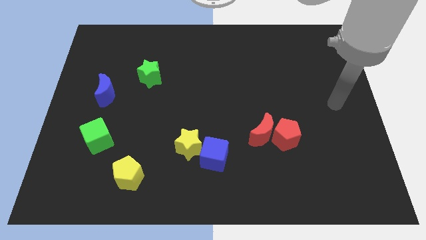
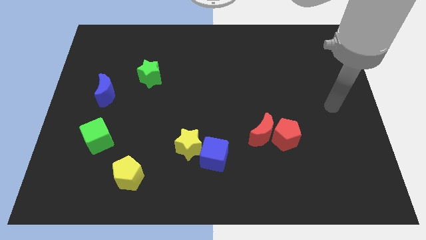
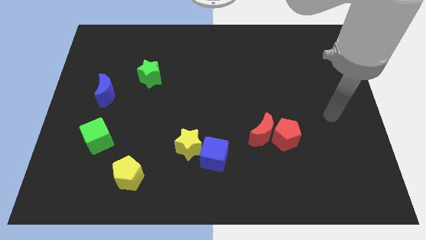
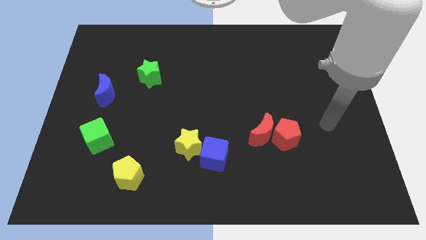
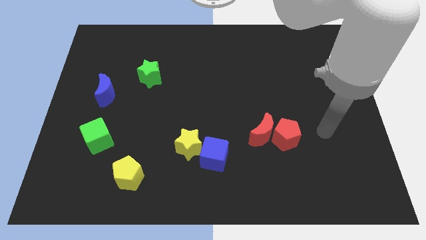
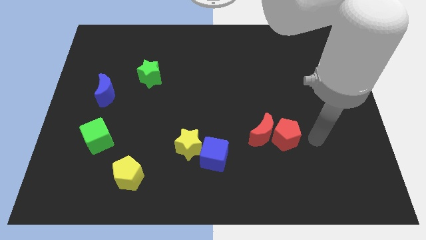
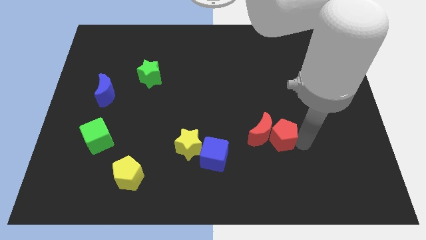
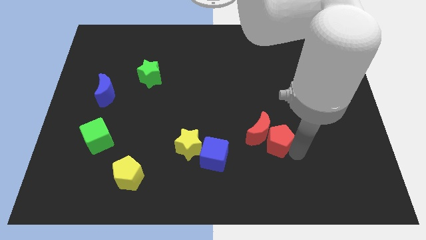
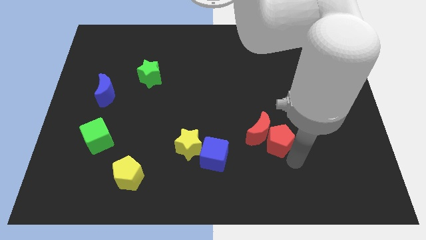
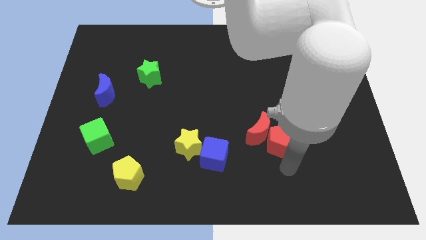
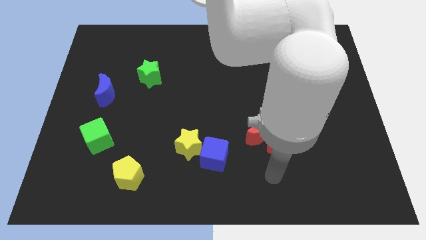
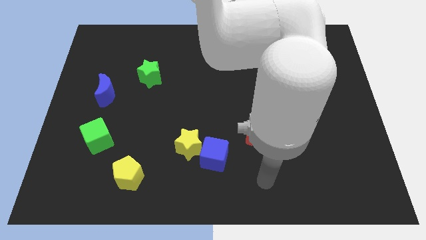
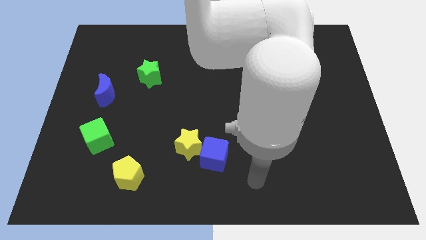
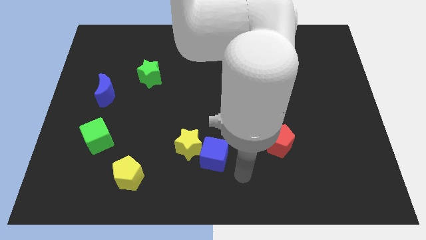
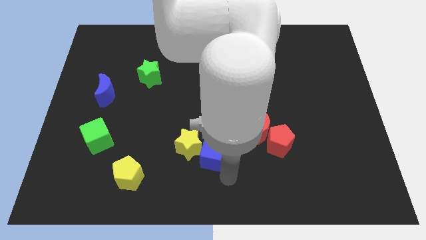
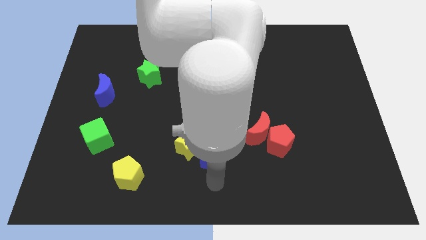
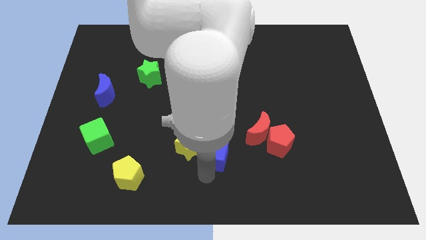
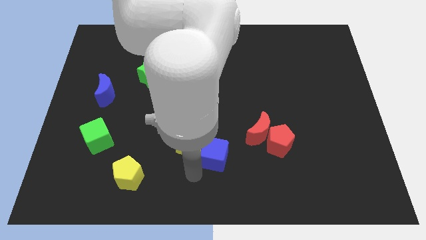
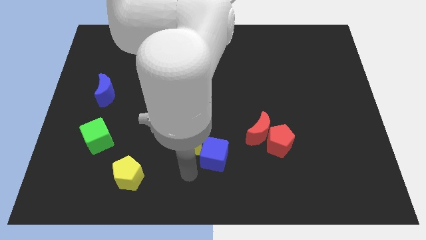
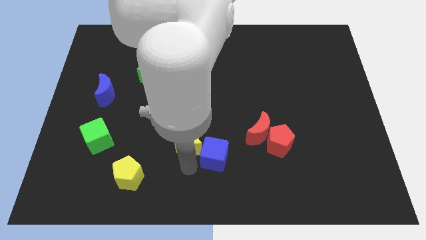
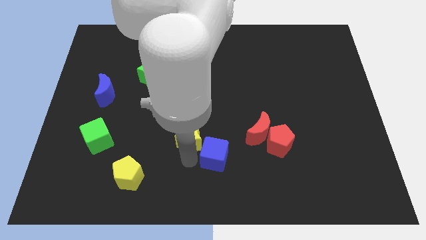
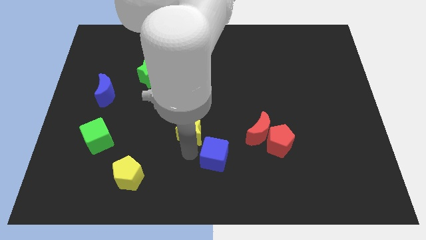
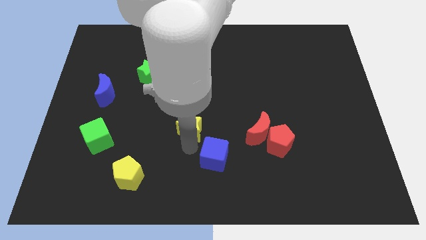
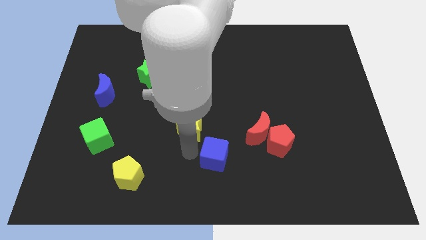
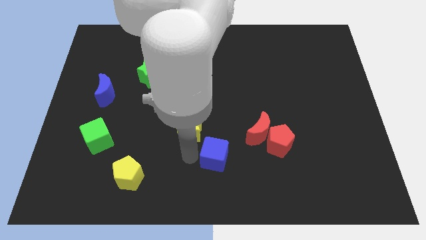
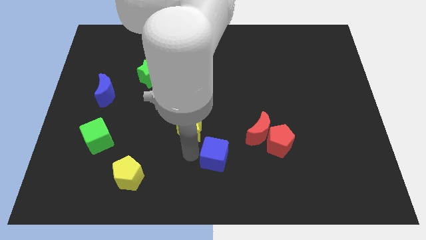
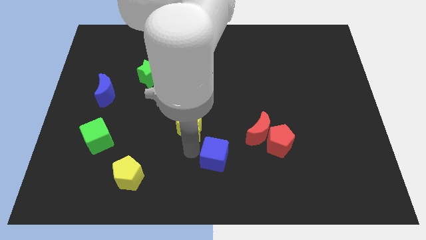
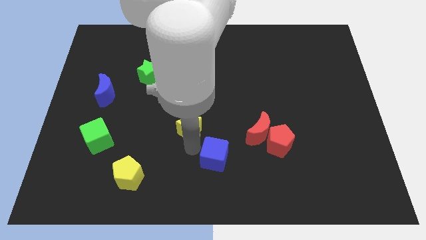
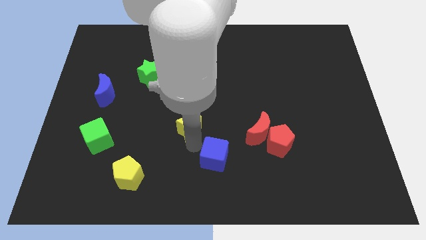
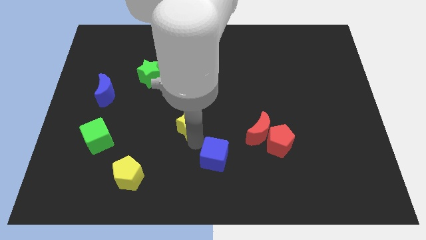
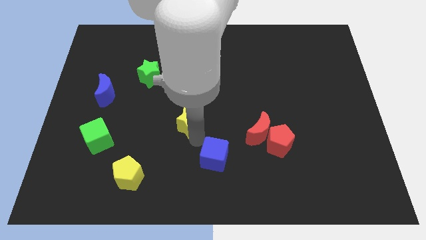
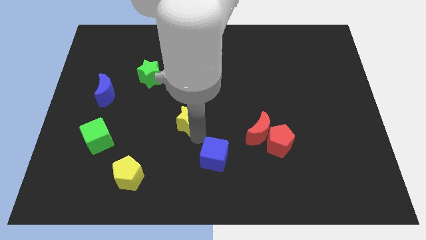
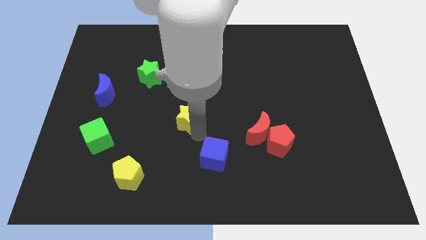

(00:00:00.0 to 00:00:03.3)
slightly slide the yellow star up

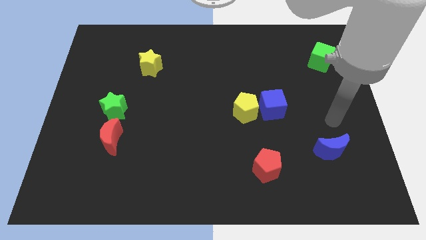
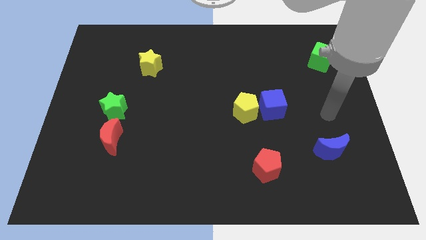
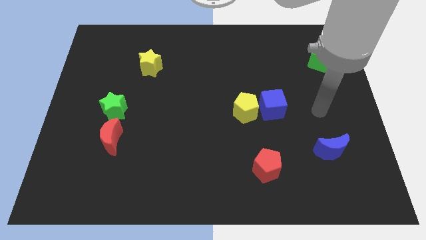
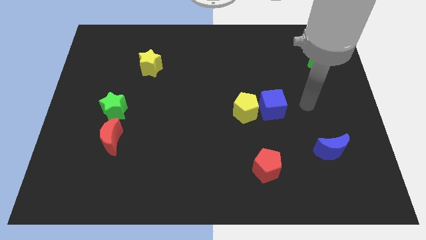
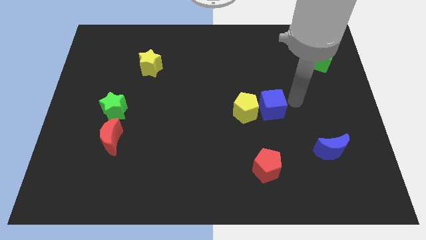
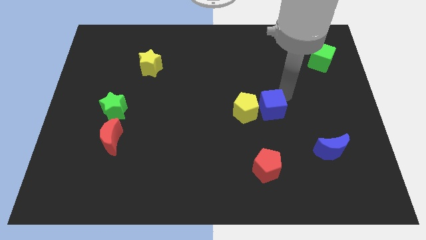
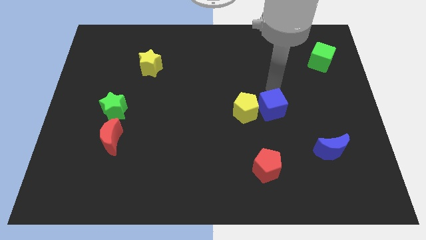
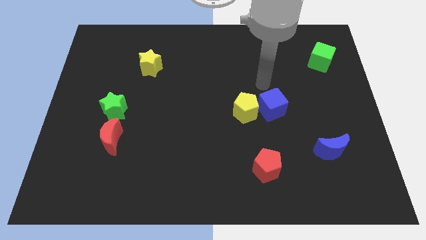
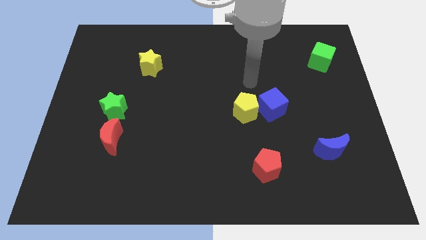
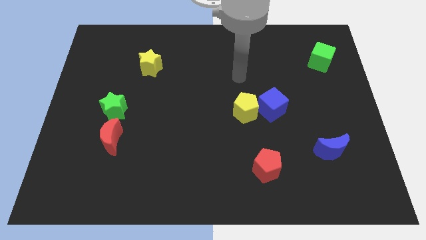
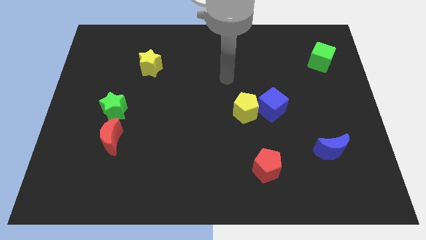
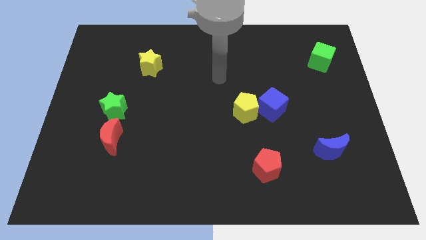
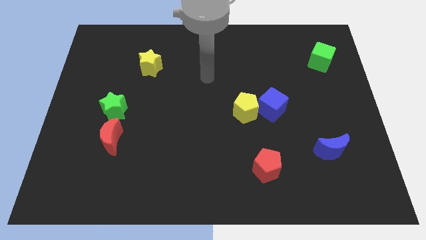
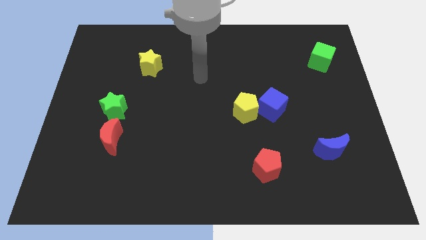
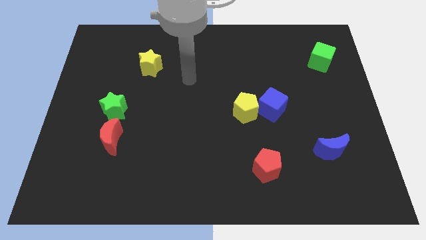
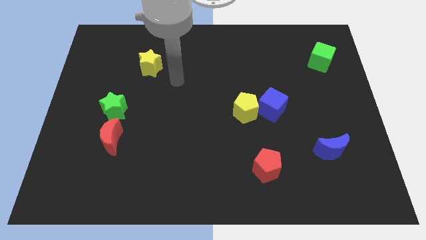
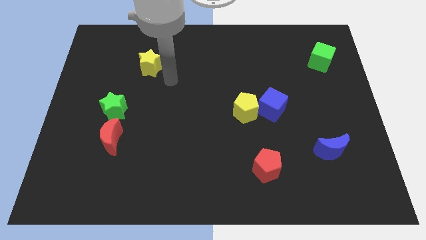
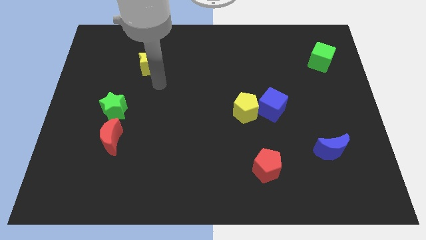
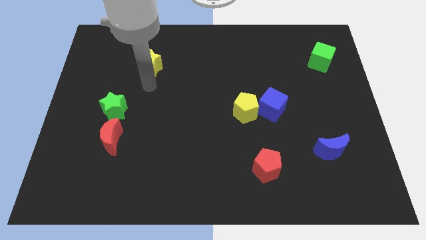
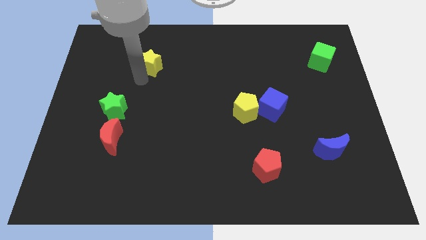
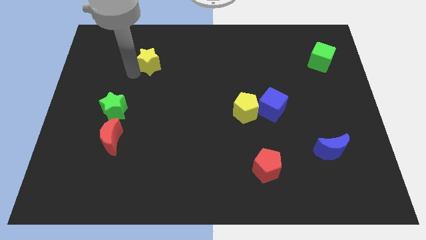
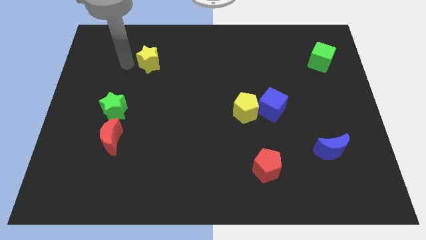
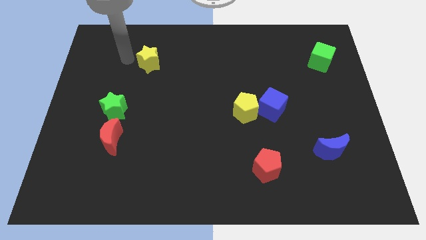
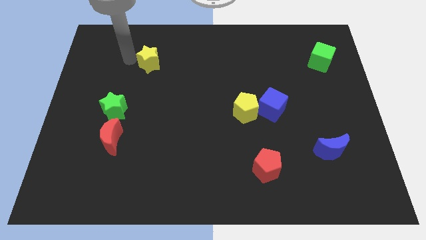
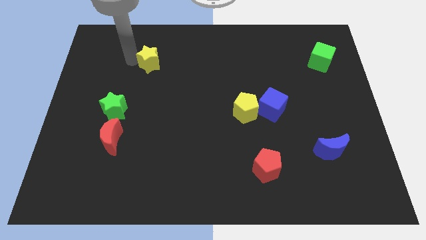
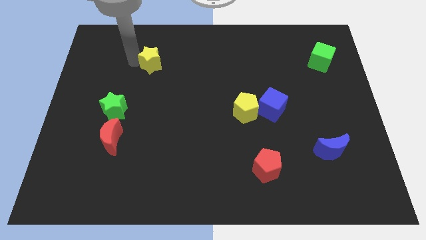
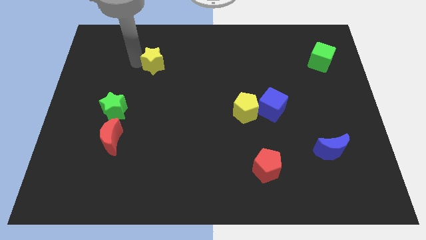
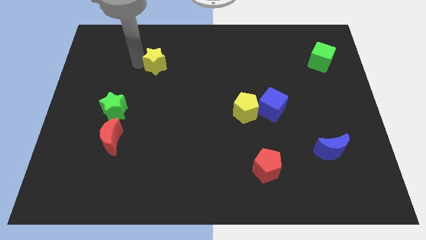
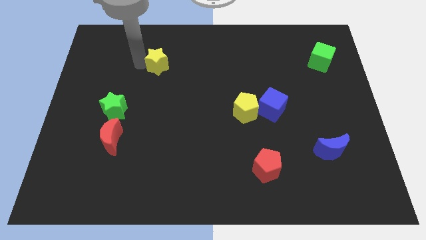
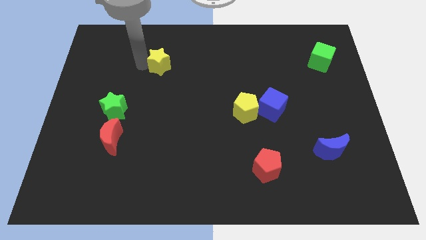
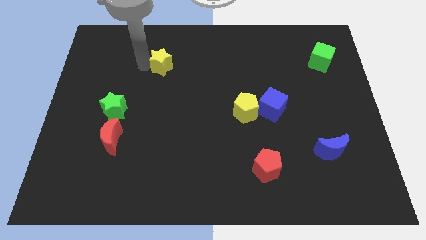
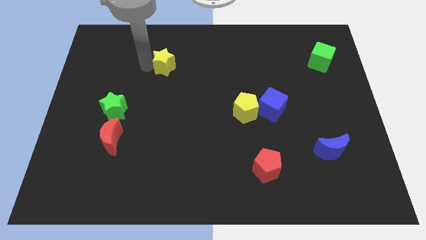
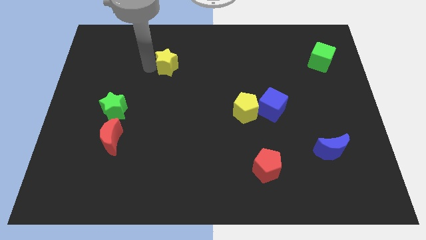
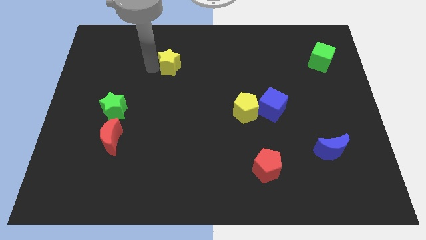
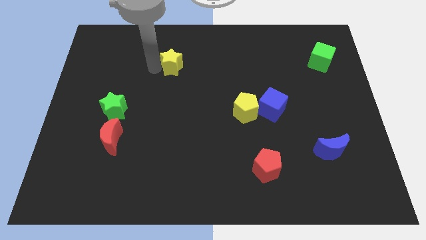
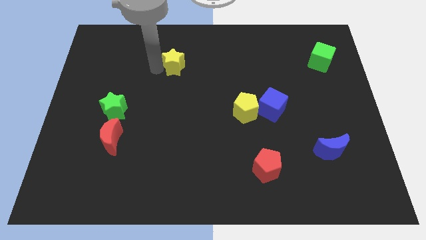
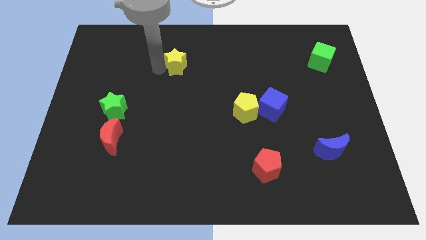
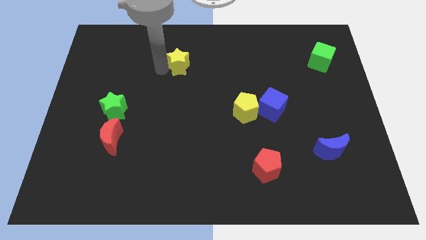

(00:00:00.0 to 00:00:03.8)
push the yellow star a little to the right

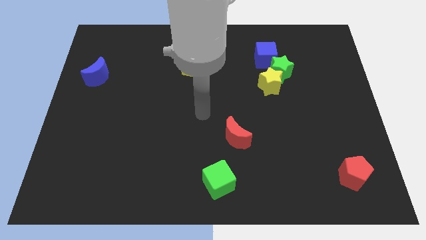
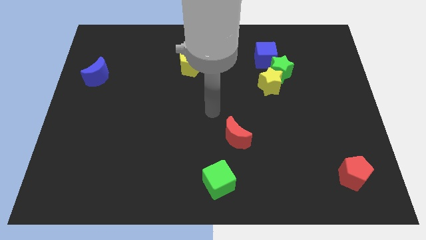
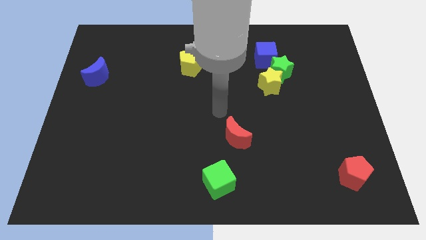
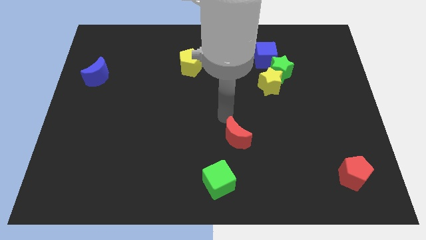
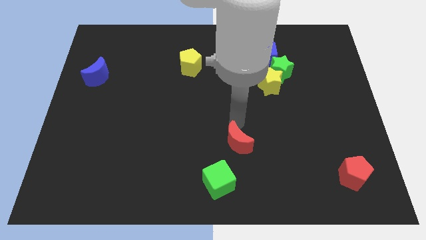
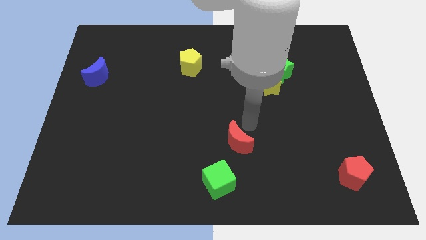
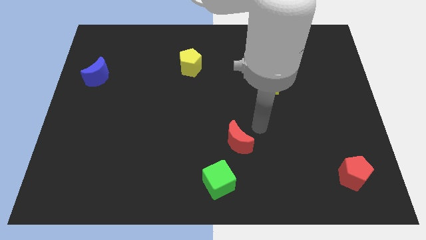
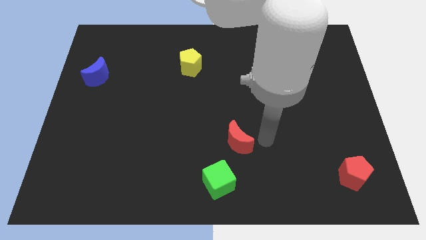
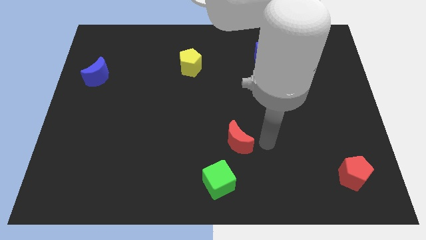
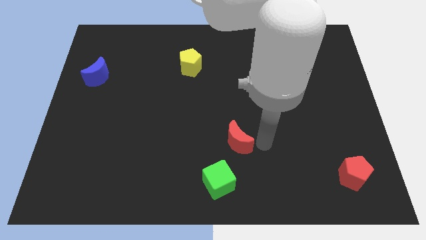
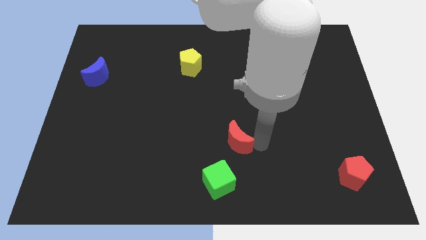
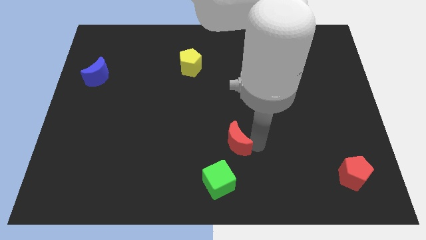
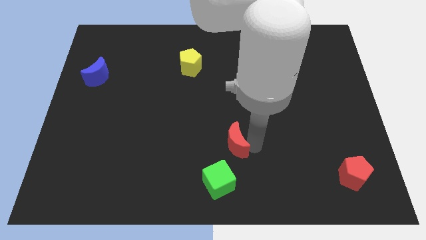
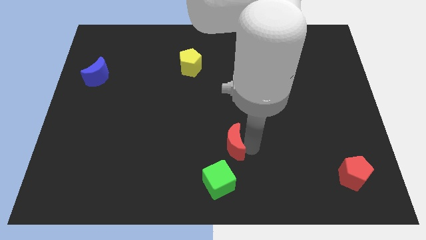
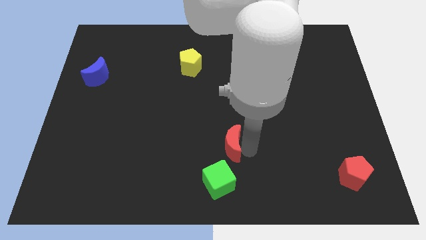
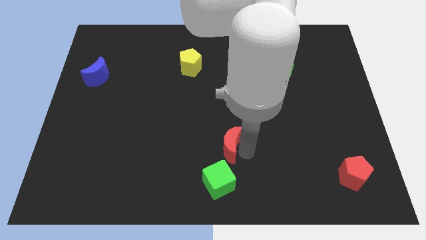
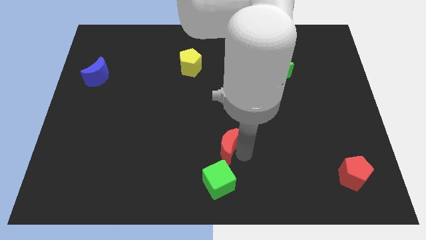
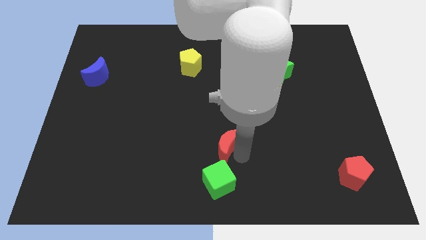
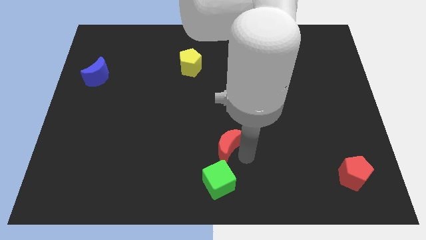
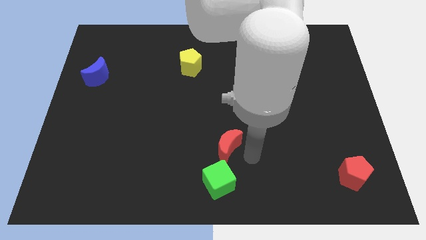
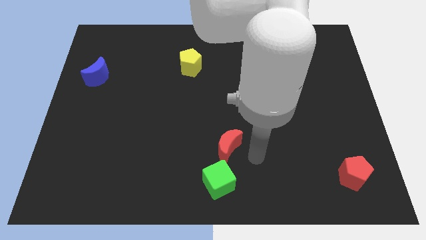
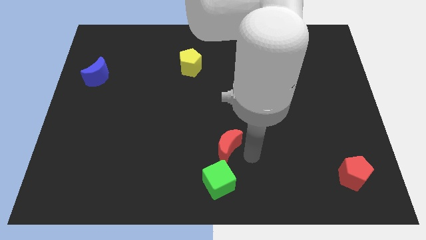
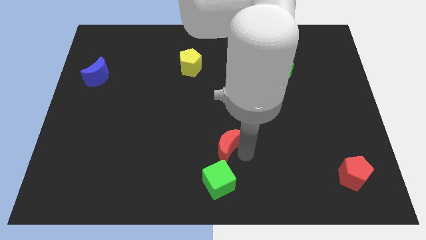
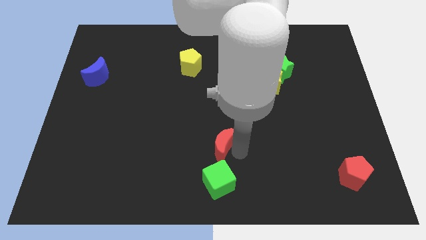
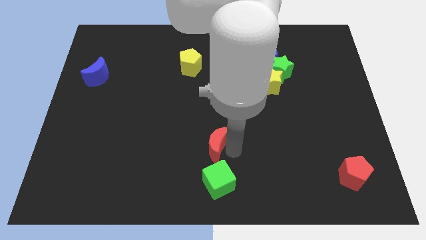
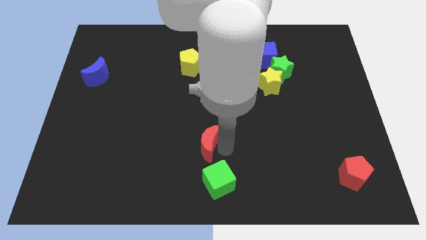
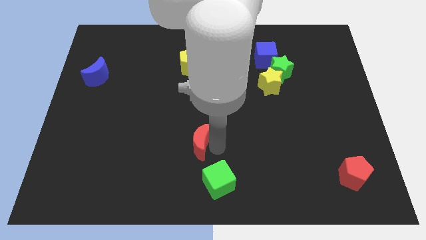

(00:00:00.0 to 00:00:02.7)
slightly push the red moon left
